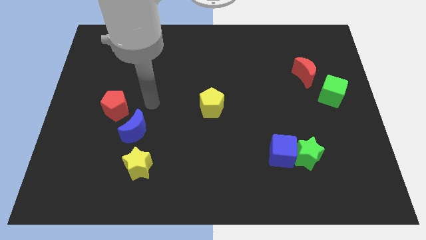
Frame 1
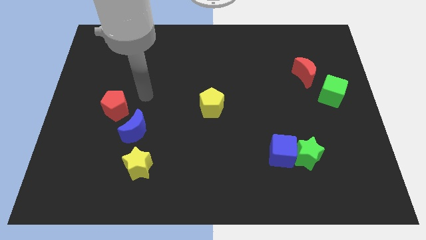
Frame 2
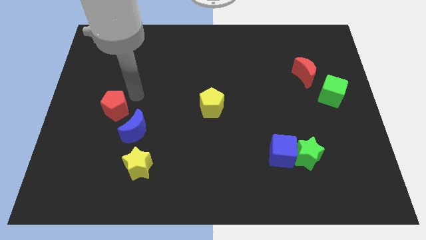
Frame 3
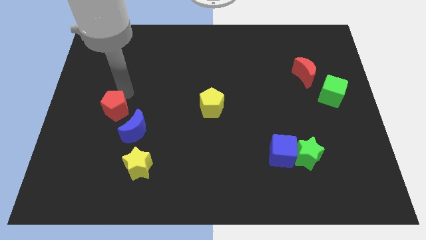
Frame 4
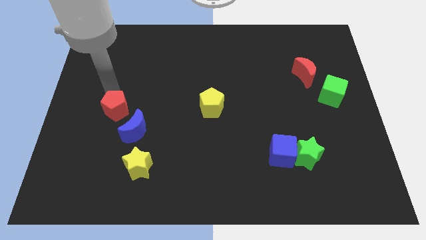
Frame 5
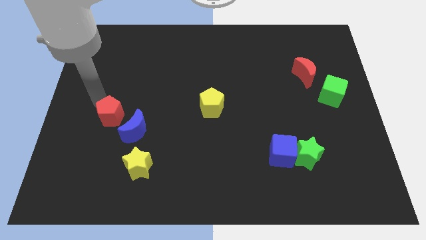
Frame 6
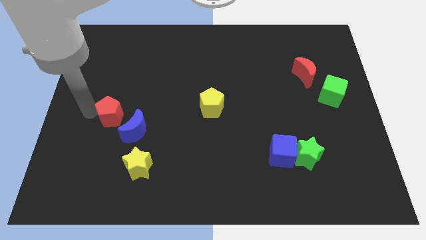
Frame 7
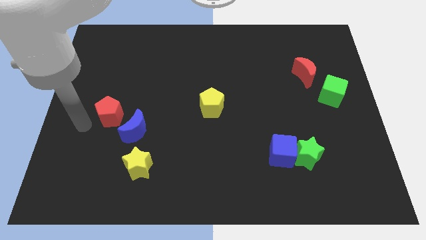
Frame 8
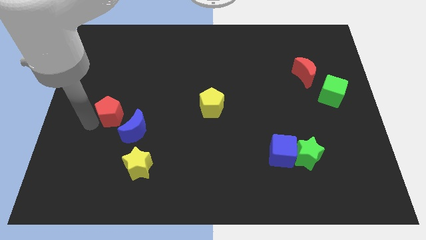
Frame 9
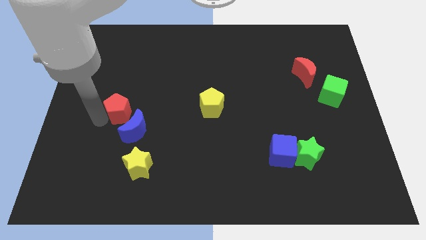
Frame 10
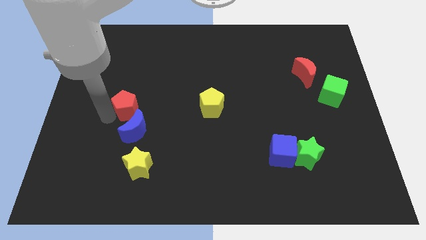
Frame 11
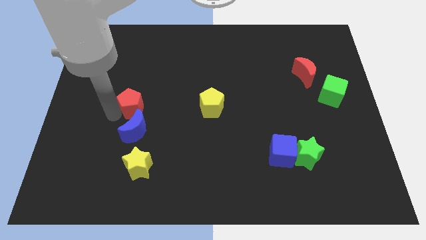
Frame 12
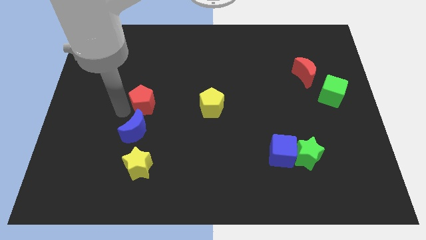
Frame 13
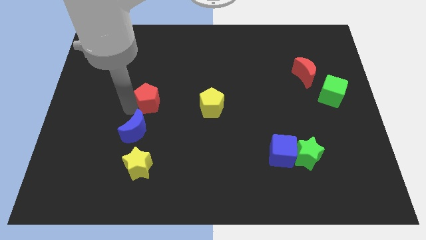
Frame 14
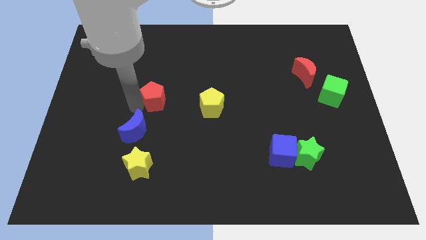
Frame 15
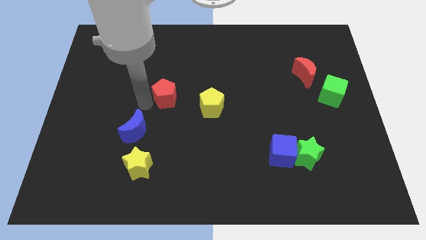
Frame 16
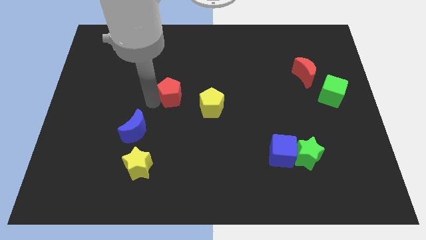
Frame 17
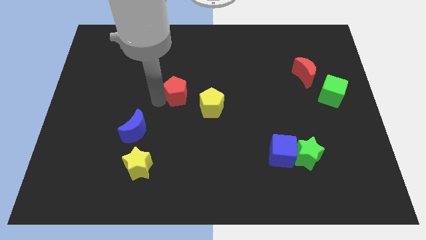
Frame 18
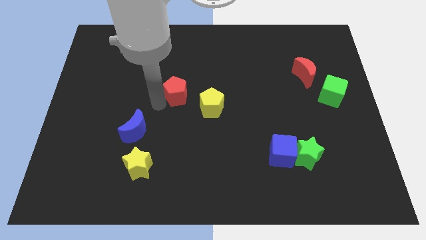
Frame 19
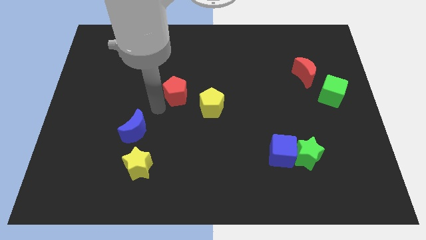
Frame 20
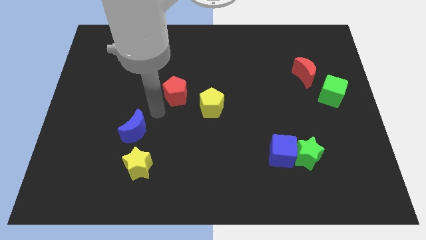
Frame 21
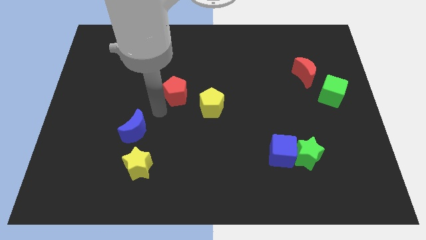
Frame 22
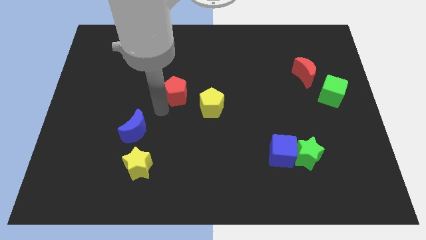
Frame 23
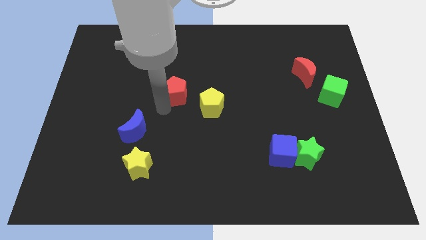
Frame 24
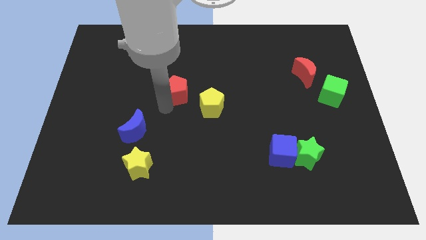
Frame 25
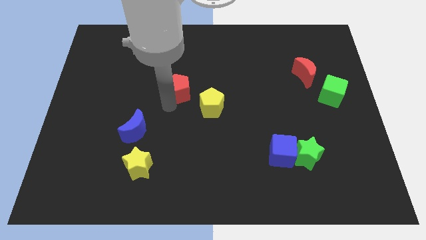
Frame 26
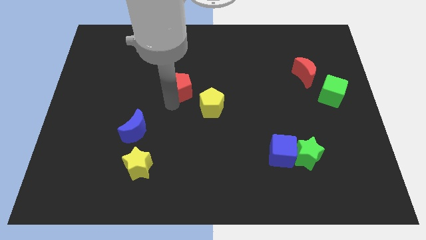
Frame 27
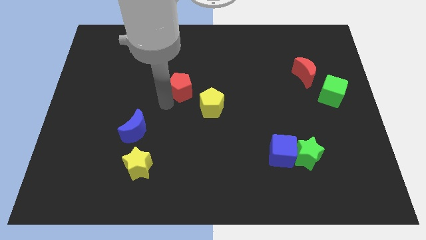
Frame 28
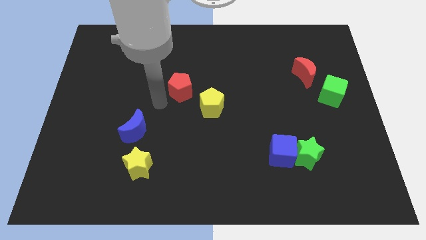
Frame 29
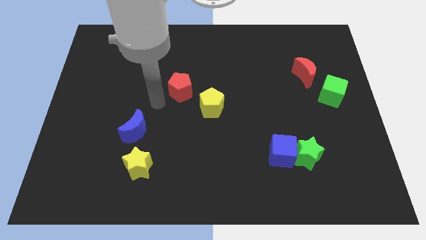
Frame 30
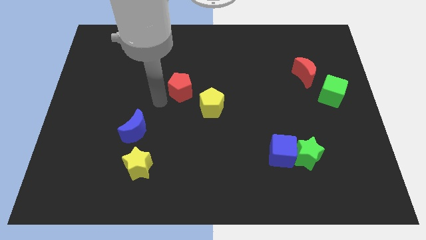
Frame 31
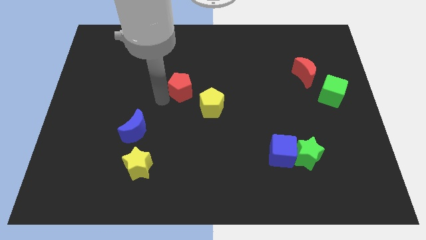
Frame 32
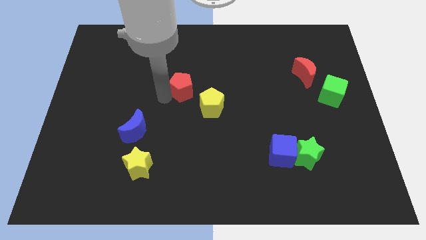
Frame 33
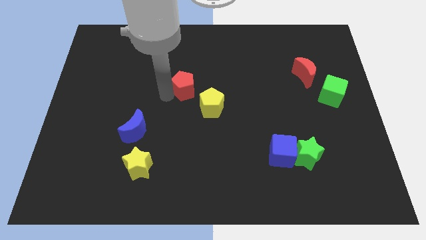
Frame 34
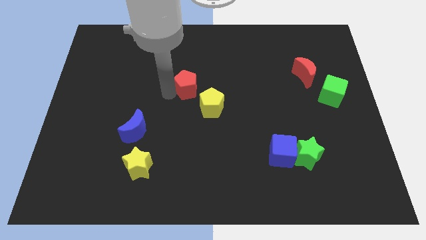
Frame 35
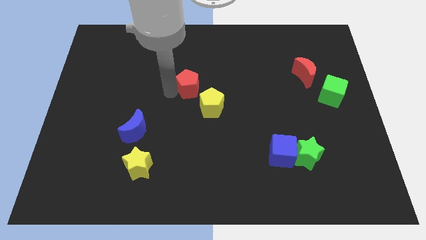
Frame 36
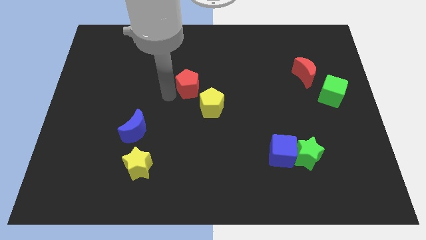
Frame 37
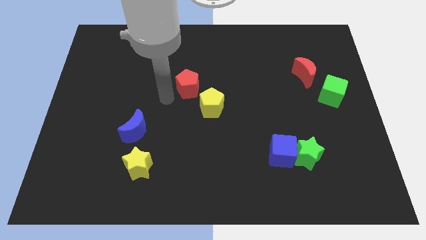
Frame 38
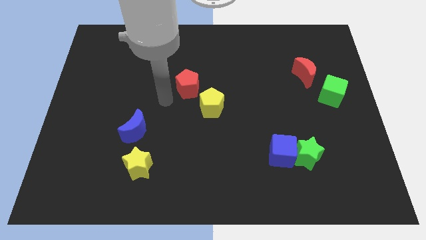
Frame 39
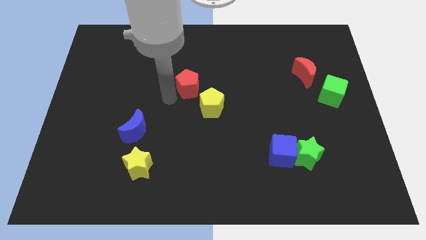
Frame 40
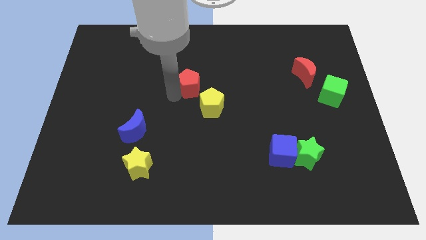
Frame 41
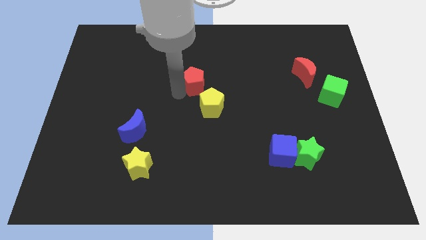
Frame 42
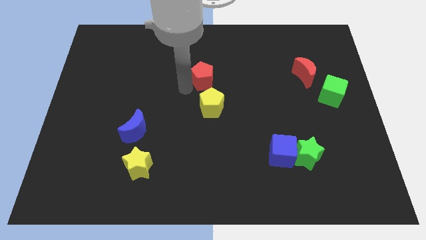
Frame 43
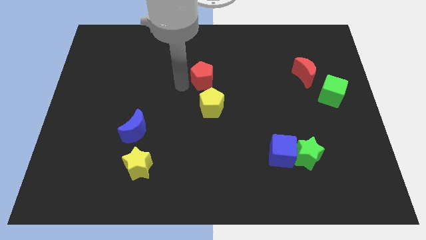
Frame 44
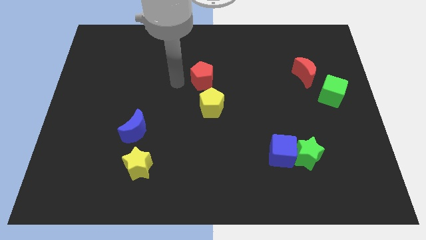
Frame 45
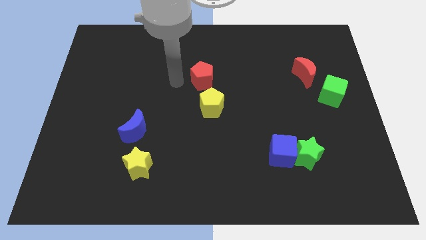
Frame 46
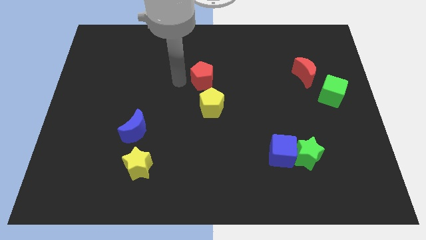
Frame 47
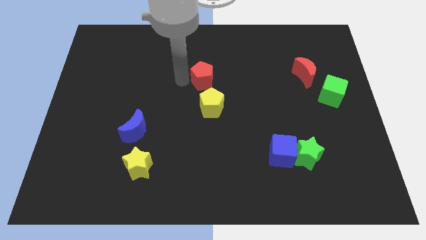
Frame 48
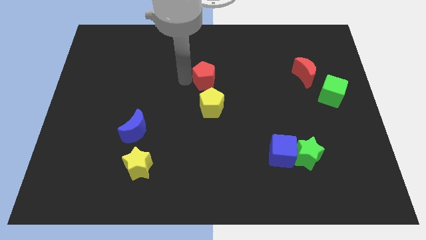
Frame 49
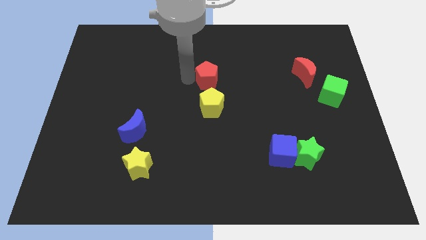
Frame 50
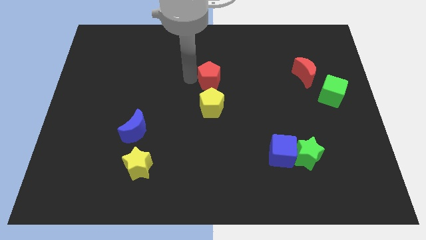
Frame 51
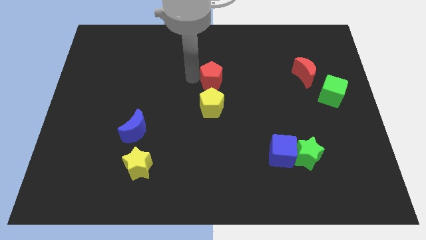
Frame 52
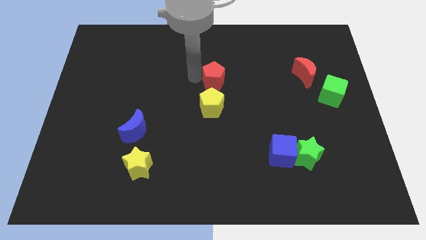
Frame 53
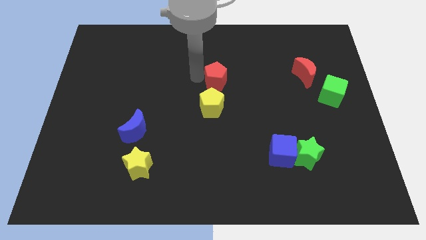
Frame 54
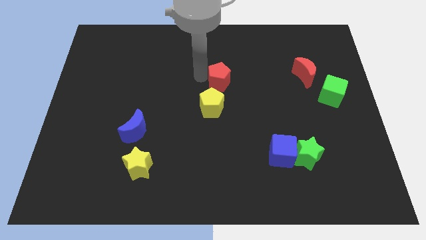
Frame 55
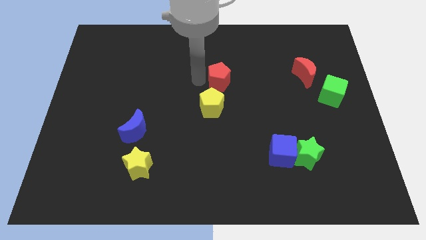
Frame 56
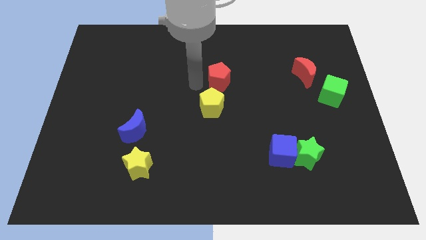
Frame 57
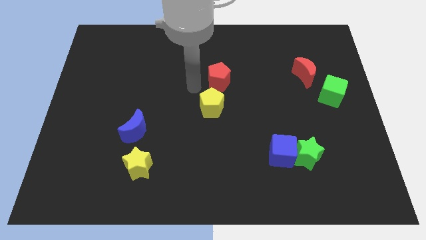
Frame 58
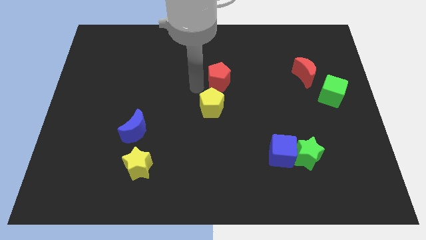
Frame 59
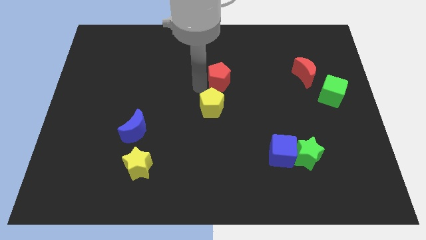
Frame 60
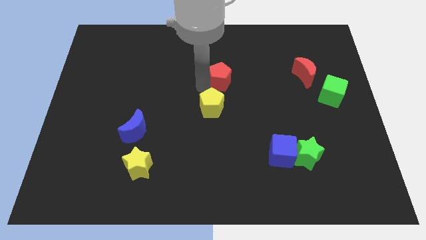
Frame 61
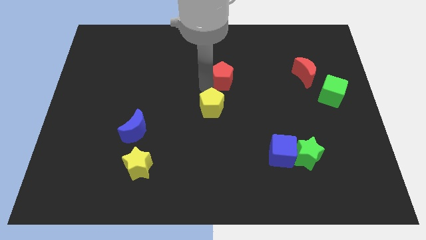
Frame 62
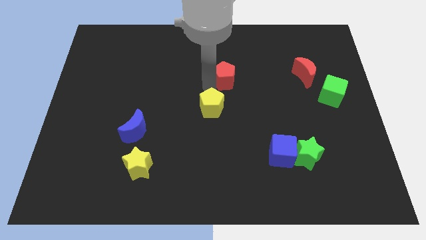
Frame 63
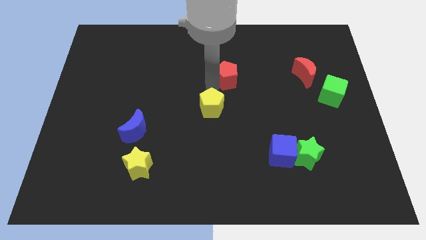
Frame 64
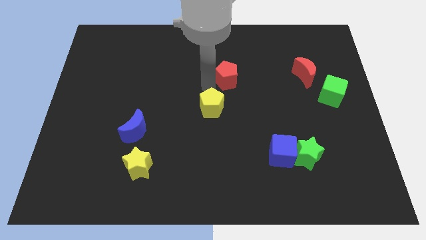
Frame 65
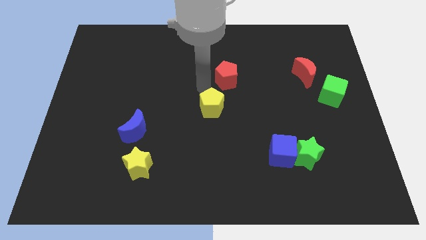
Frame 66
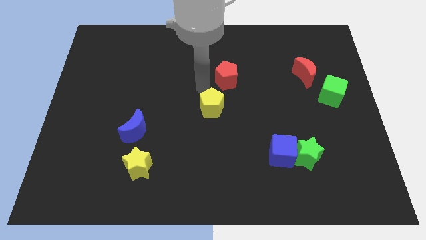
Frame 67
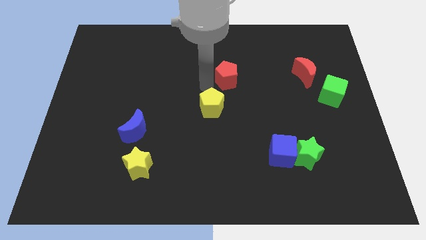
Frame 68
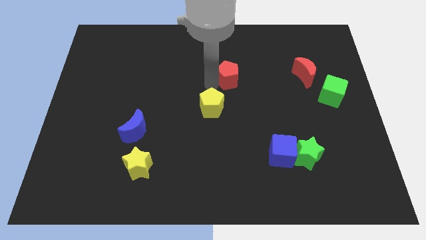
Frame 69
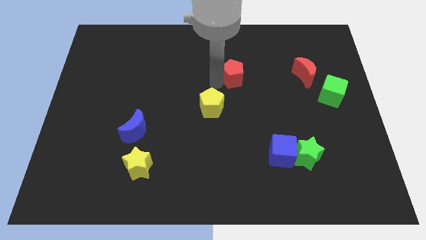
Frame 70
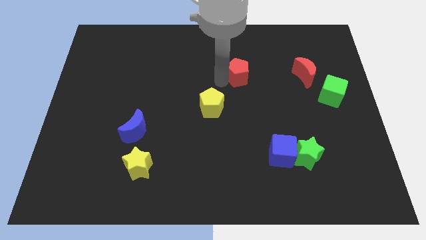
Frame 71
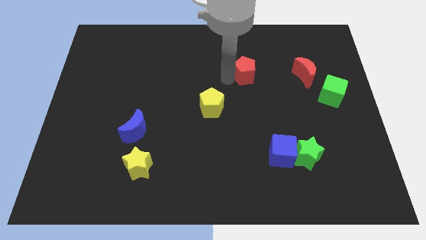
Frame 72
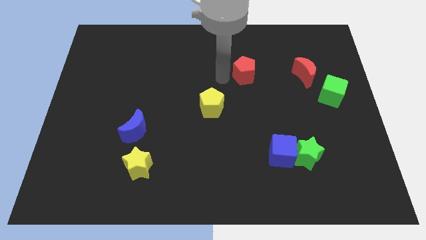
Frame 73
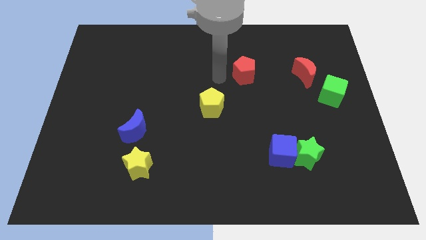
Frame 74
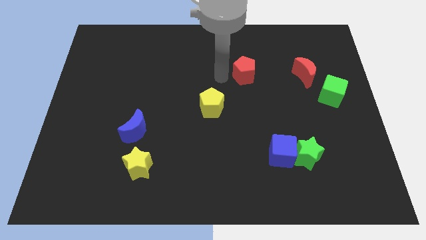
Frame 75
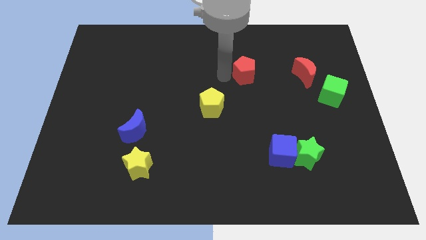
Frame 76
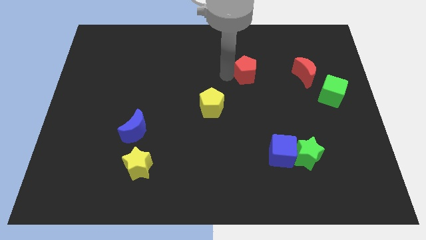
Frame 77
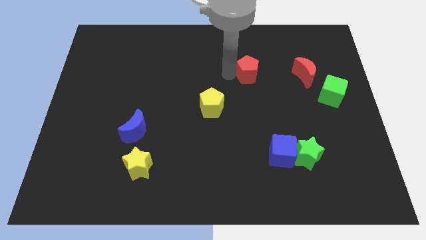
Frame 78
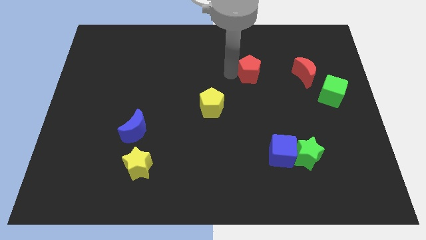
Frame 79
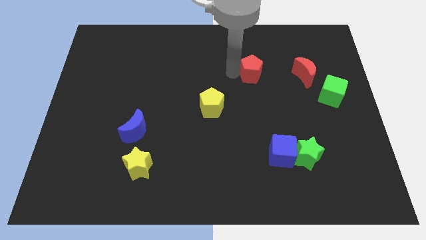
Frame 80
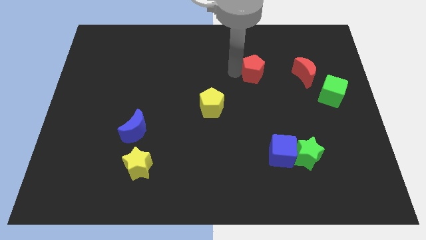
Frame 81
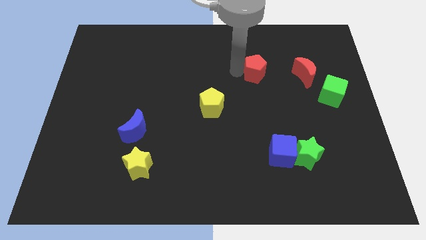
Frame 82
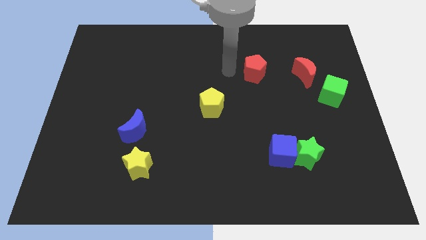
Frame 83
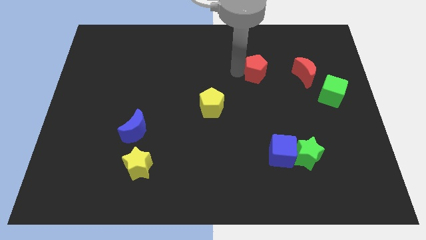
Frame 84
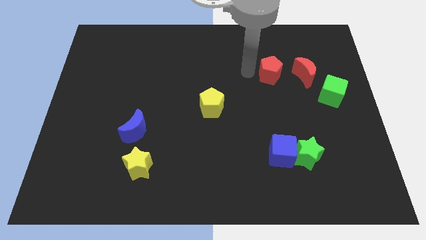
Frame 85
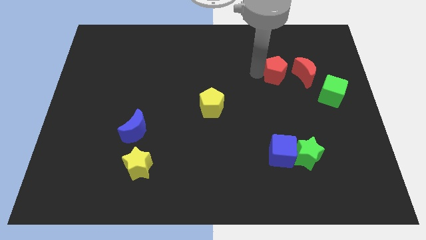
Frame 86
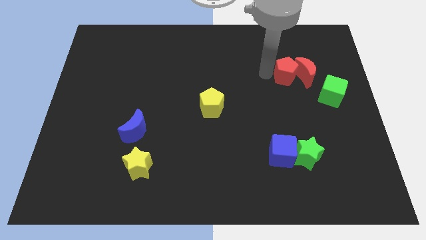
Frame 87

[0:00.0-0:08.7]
put the red pentagon to the red moon
